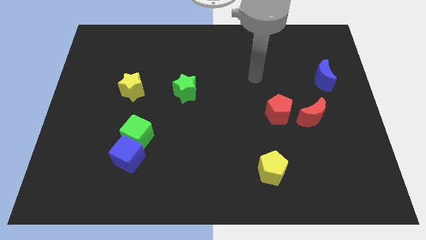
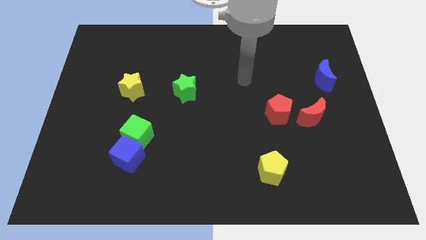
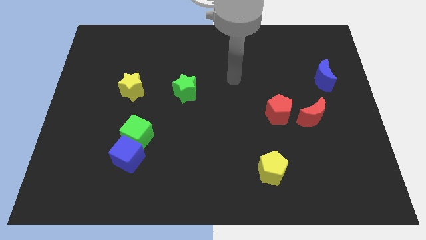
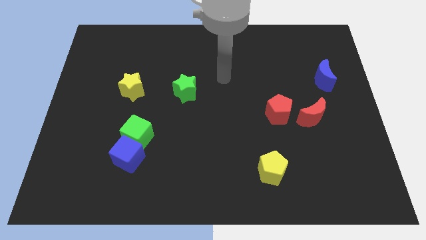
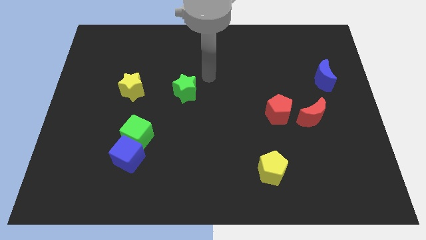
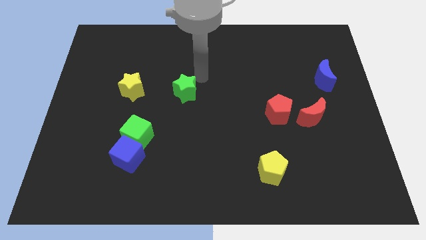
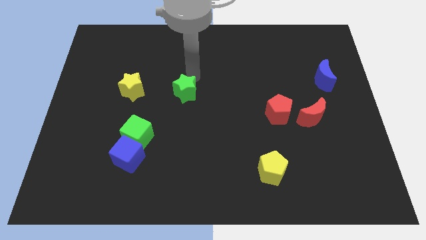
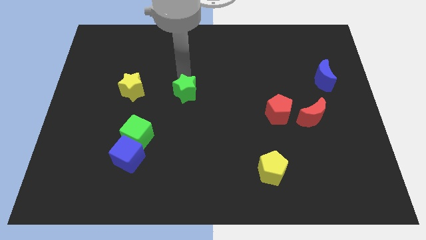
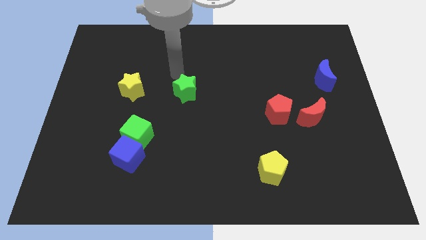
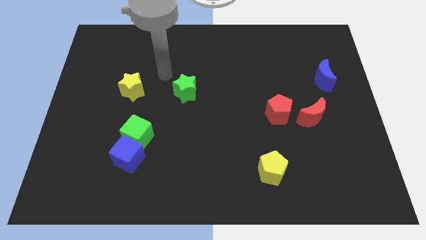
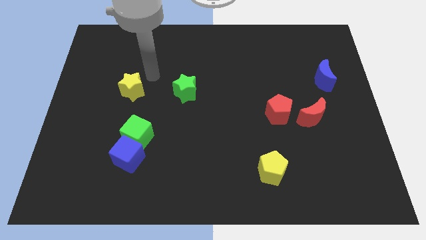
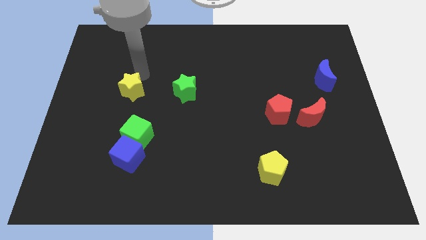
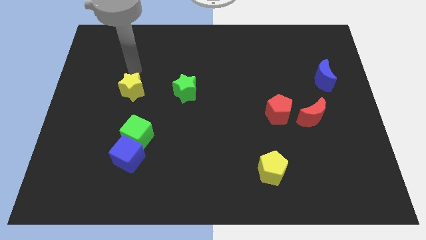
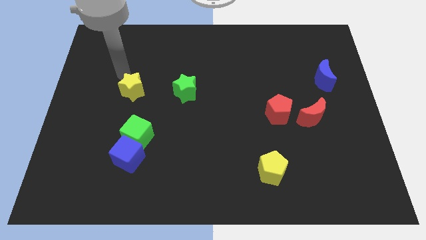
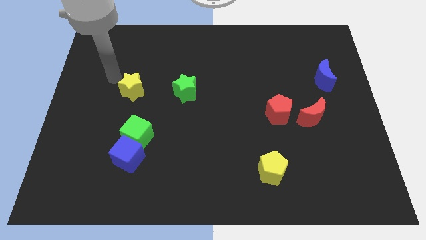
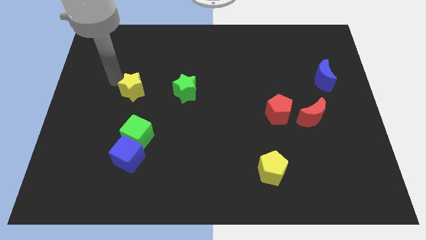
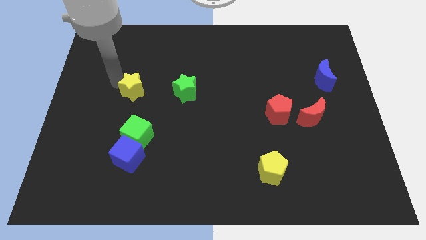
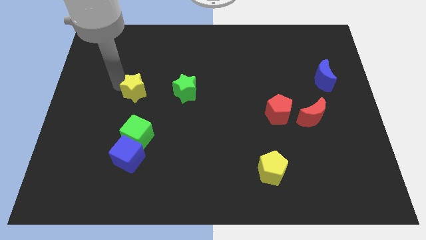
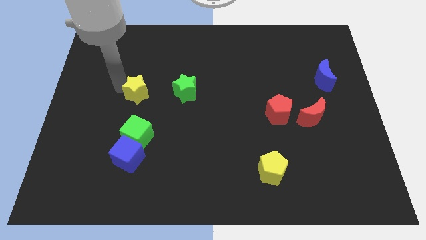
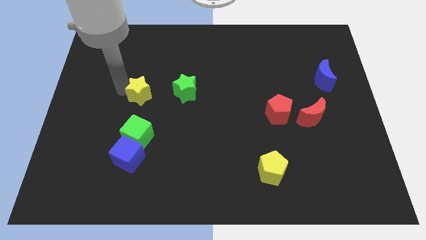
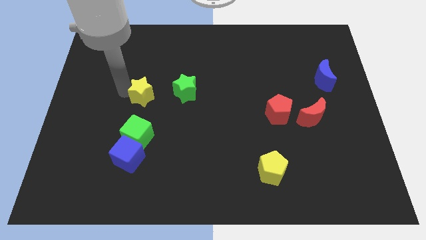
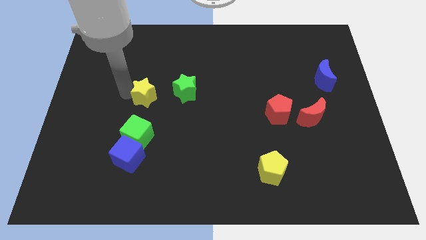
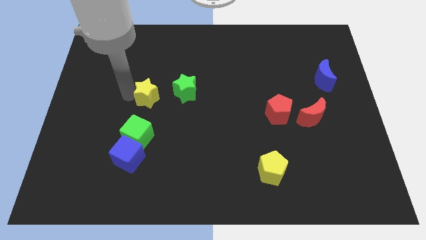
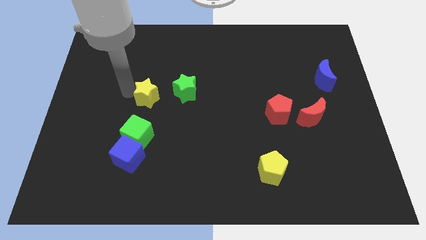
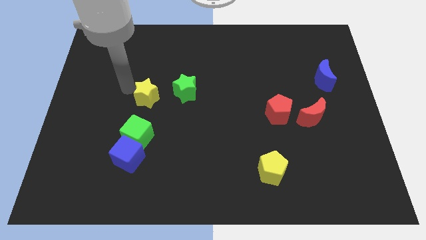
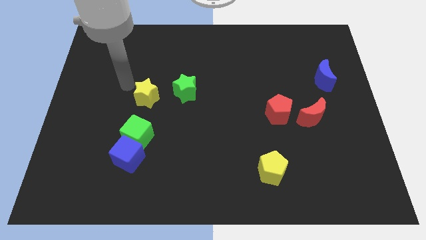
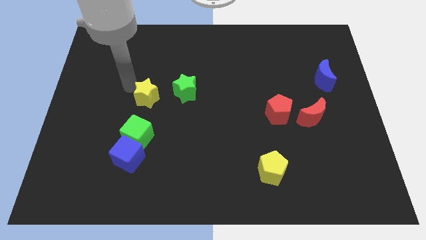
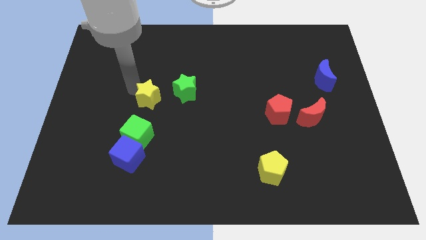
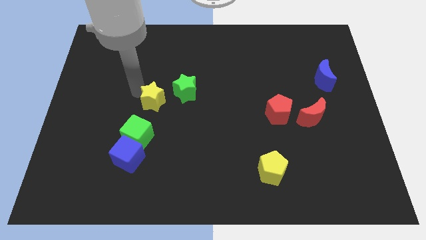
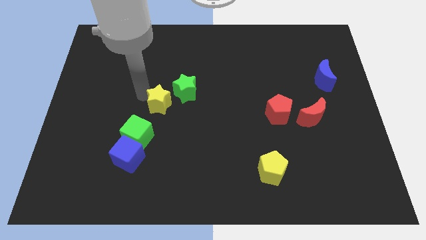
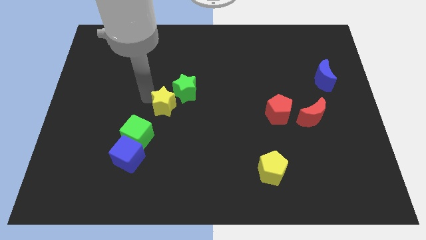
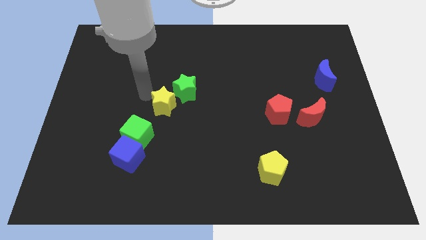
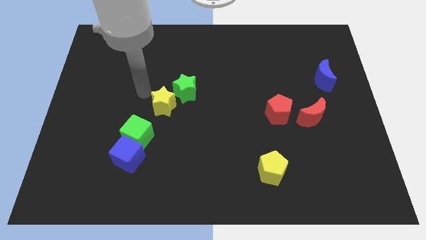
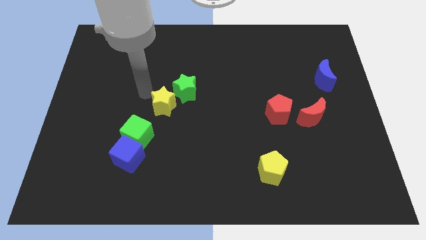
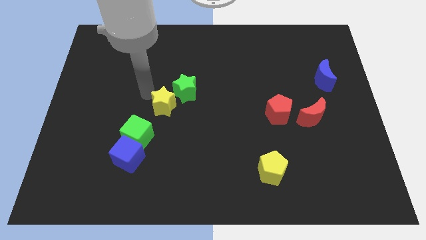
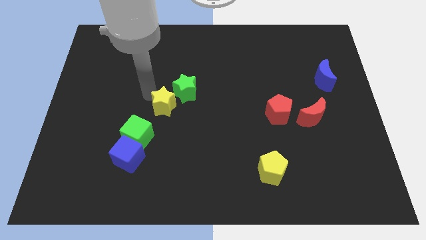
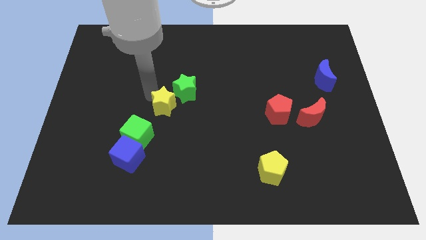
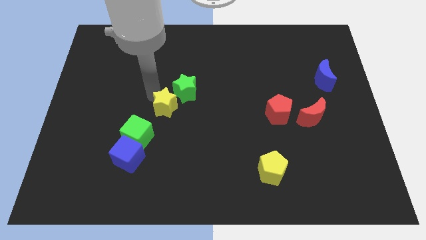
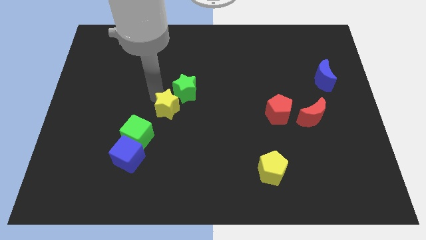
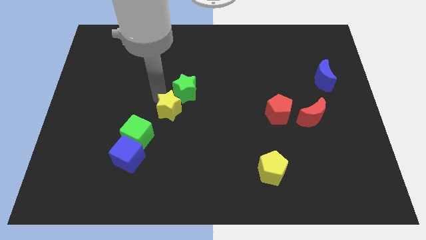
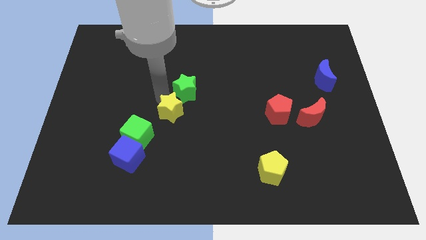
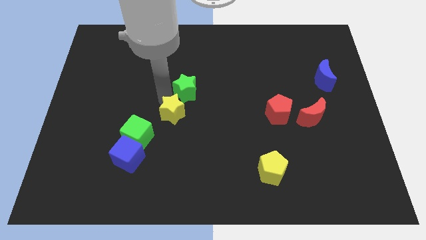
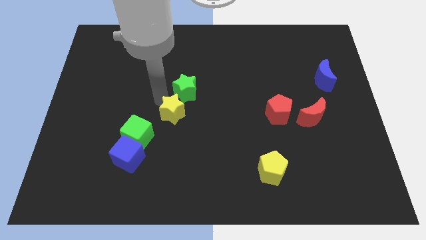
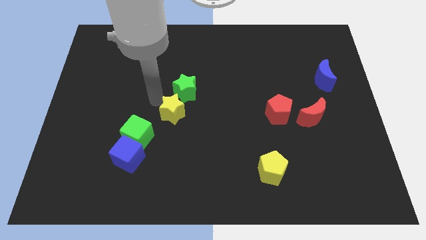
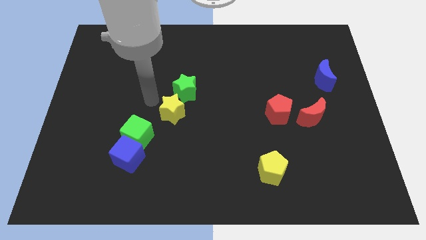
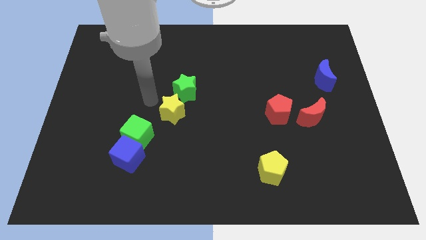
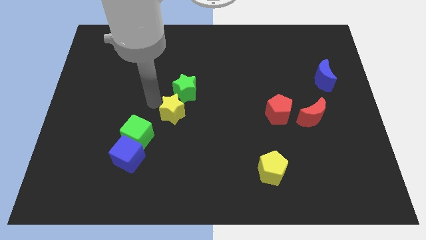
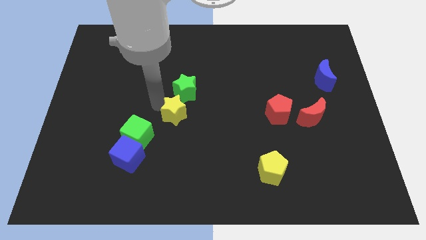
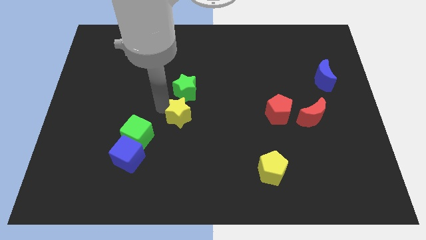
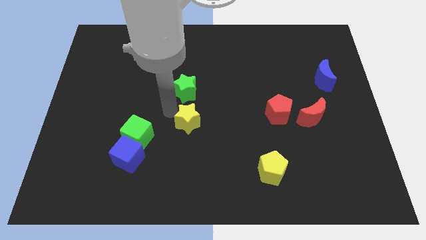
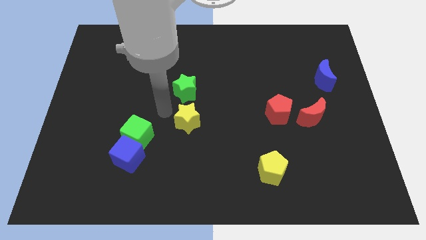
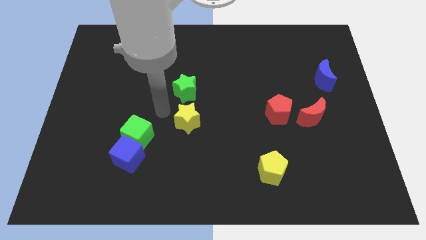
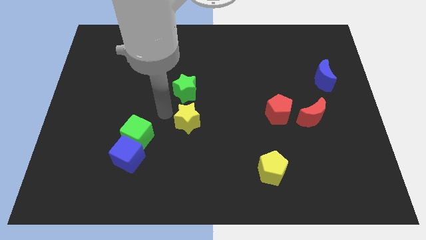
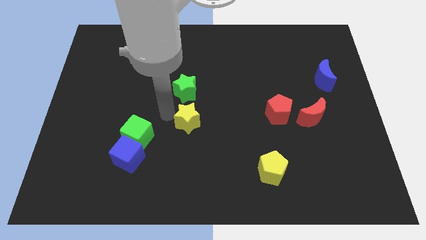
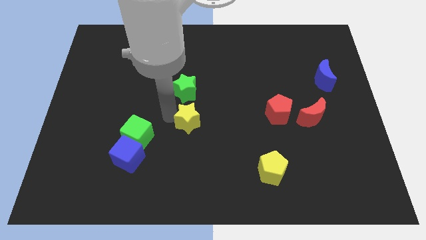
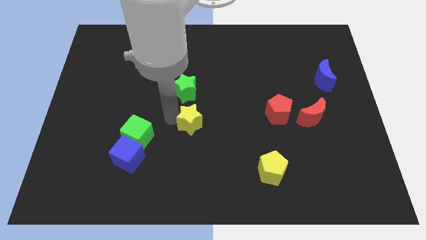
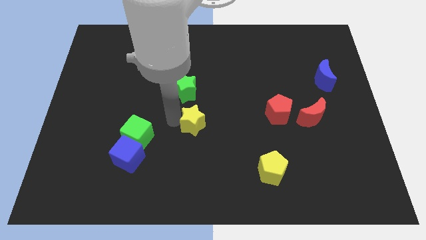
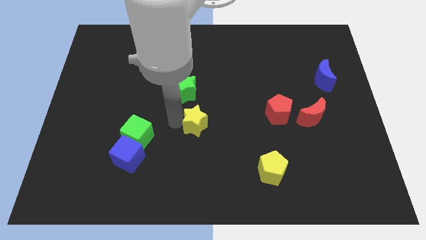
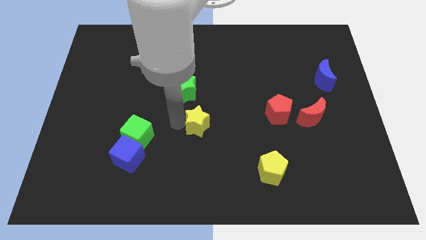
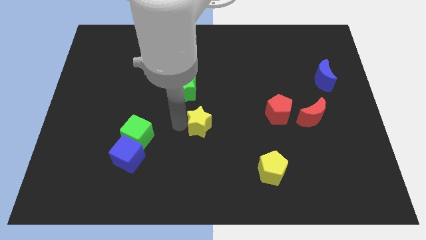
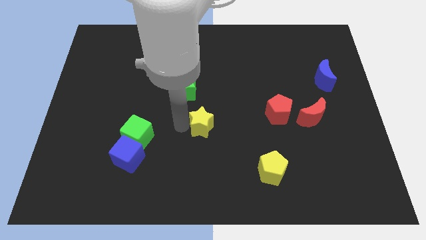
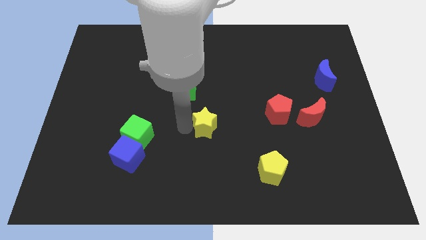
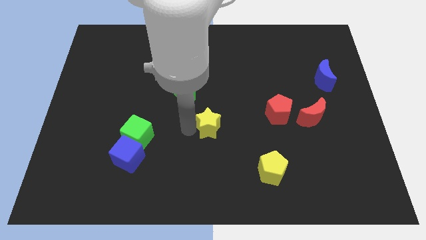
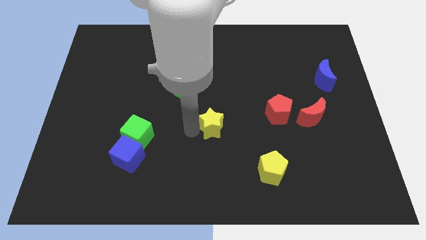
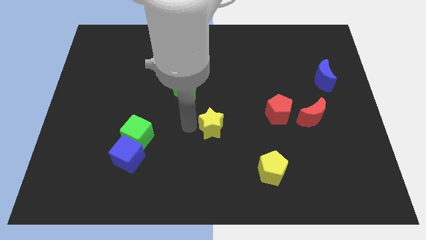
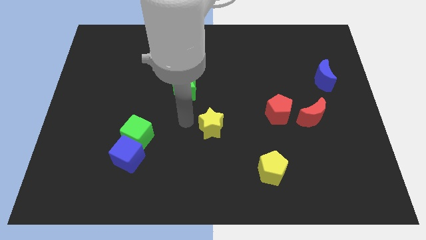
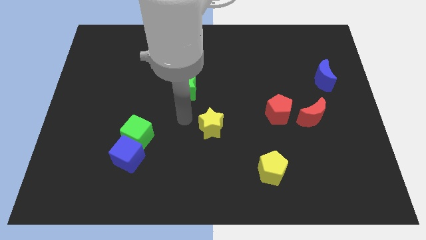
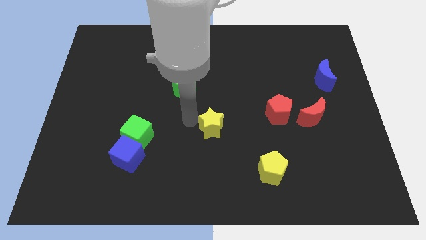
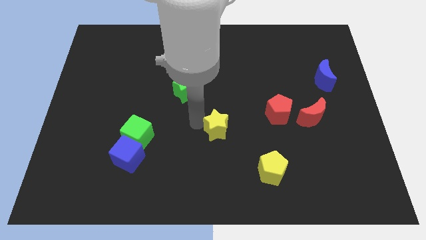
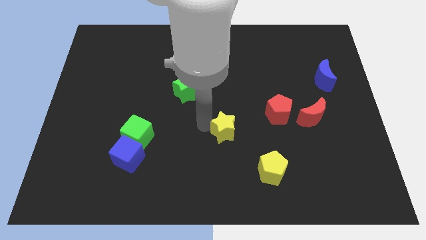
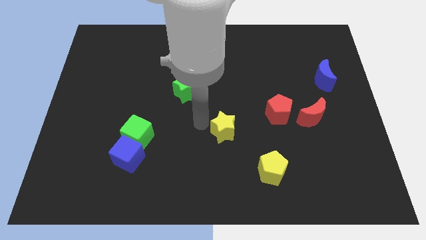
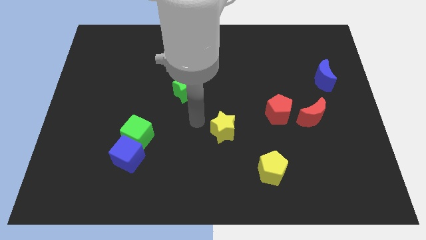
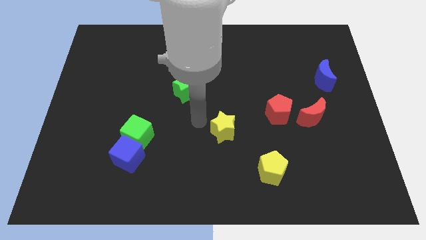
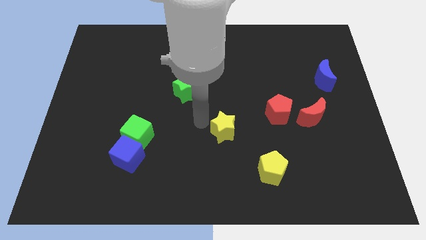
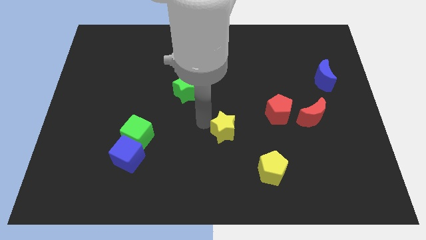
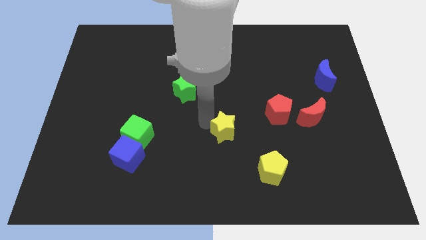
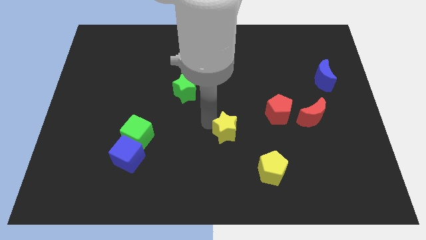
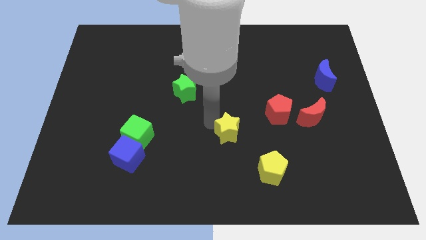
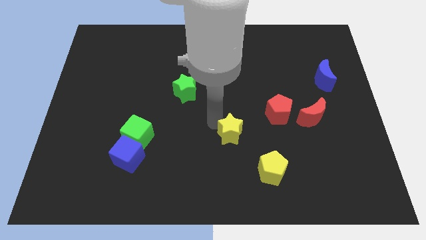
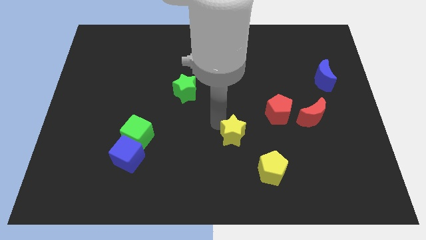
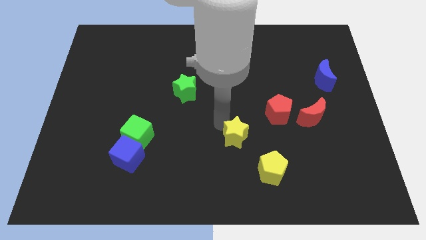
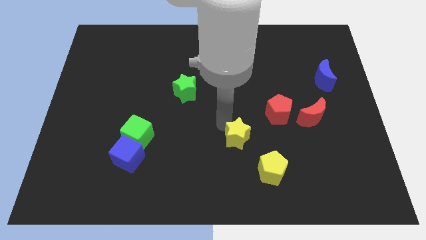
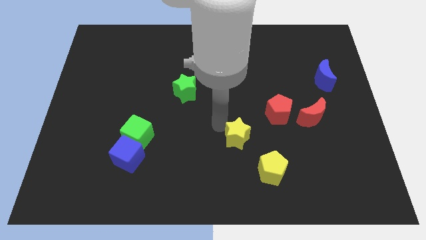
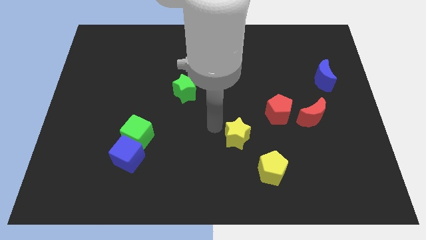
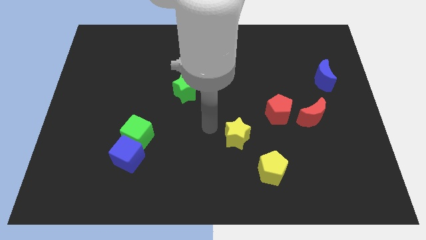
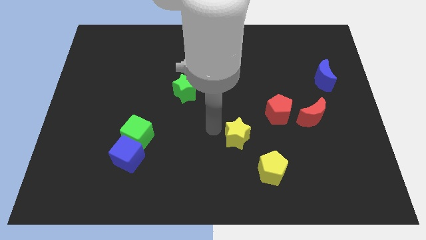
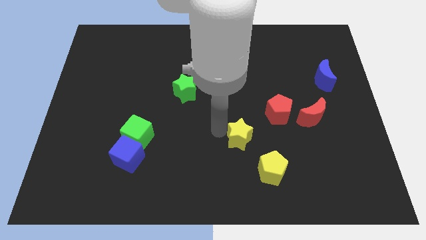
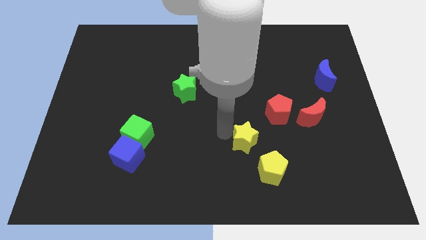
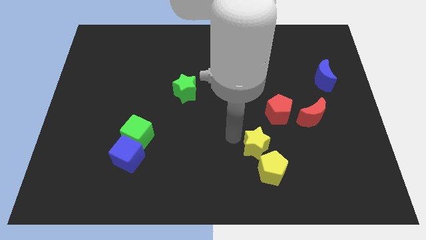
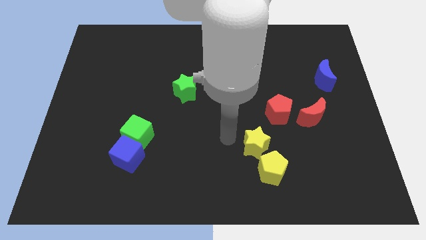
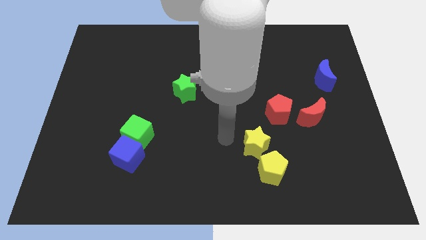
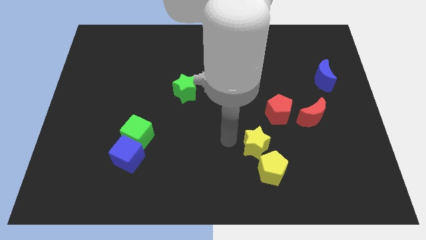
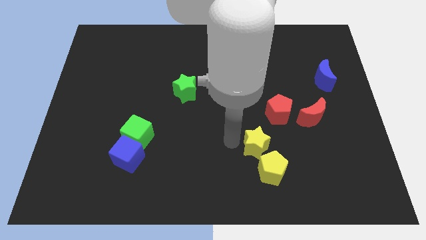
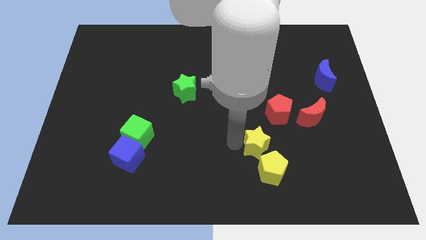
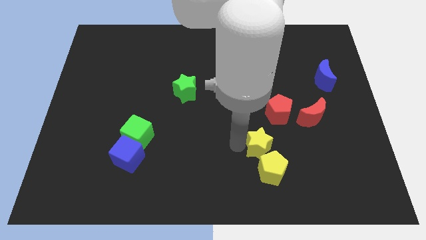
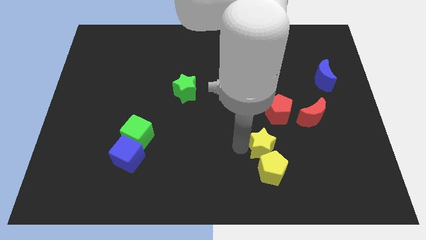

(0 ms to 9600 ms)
put the yellow star below the red pentagon
